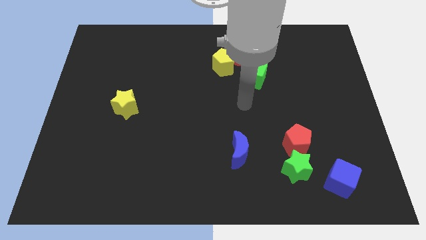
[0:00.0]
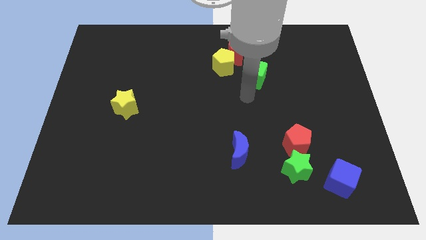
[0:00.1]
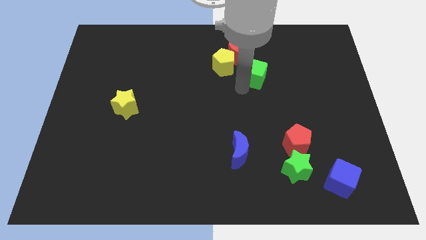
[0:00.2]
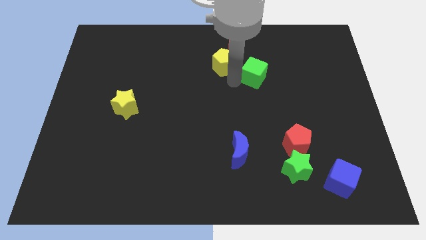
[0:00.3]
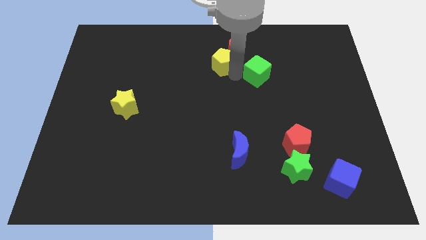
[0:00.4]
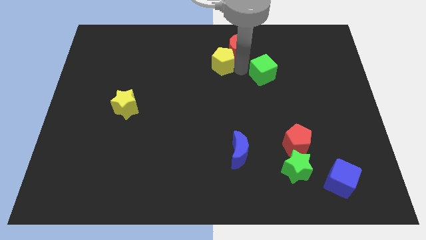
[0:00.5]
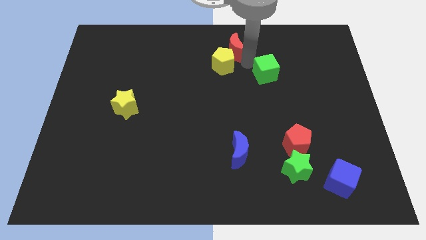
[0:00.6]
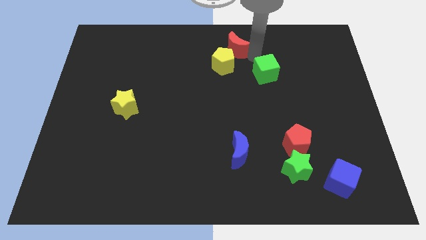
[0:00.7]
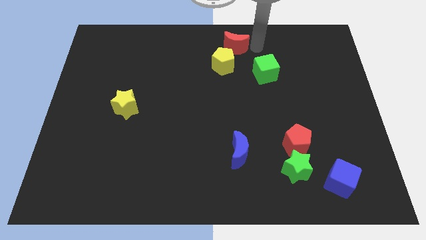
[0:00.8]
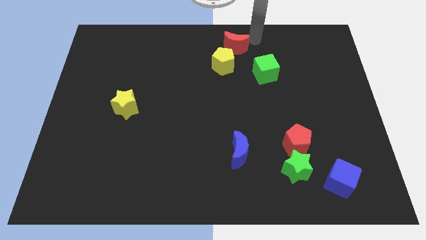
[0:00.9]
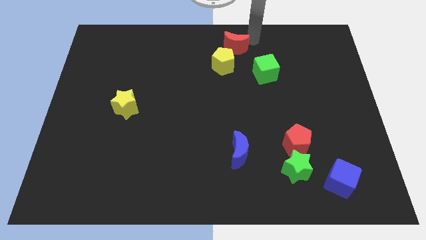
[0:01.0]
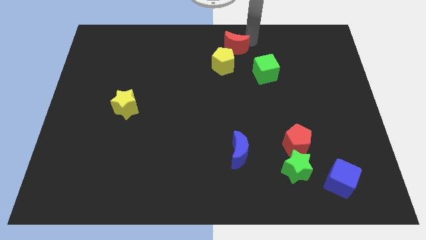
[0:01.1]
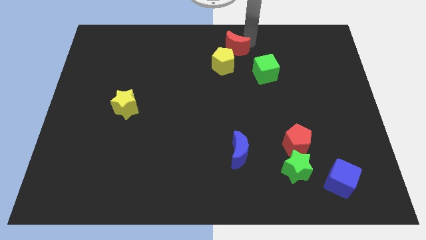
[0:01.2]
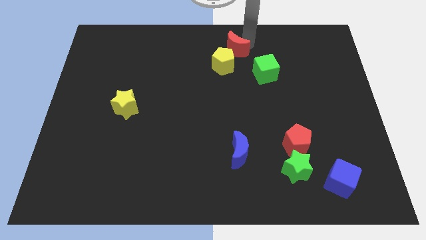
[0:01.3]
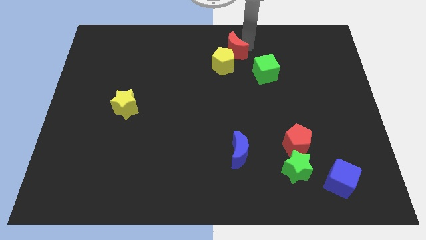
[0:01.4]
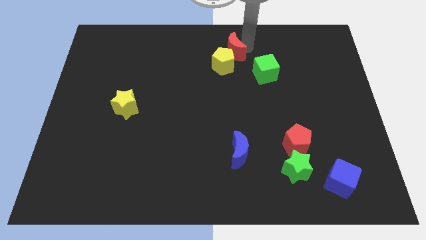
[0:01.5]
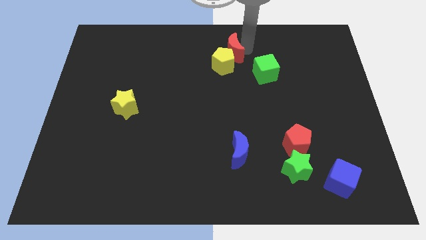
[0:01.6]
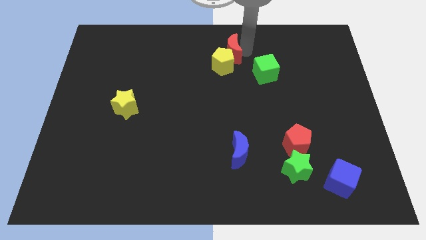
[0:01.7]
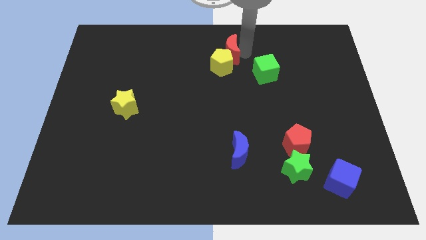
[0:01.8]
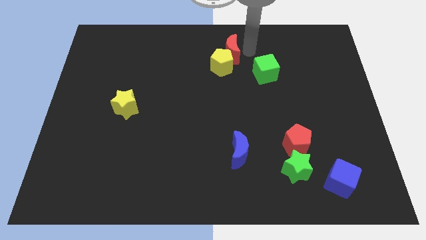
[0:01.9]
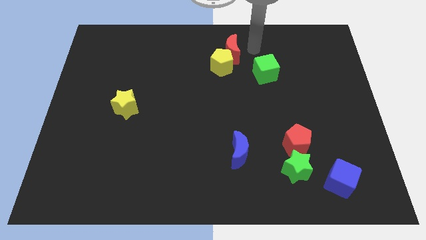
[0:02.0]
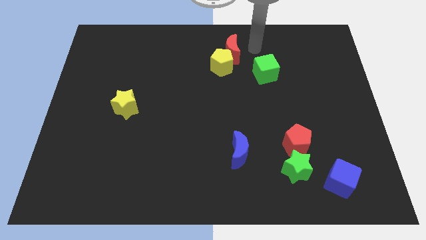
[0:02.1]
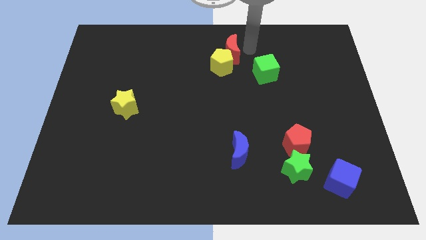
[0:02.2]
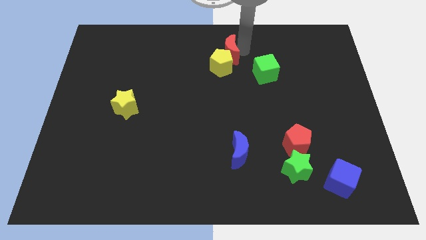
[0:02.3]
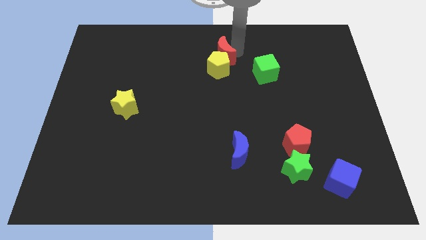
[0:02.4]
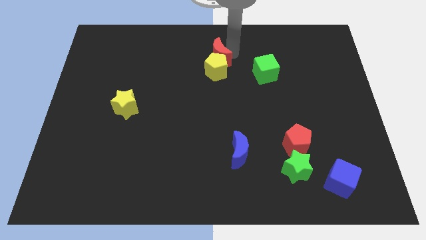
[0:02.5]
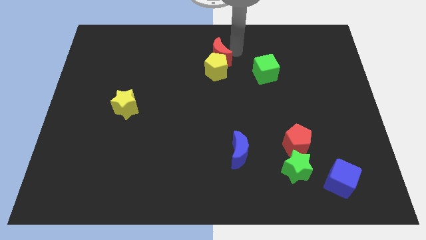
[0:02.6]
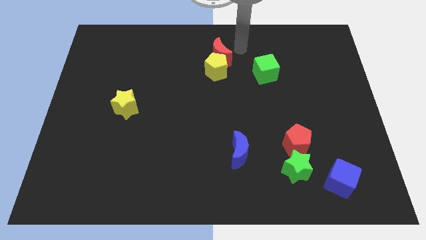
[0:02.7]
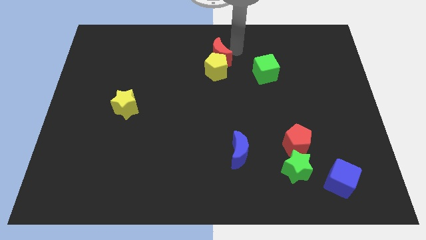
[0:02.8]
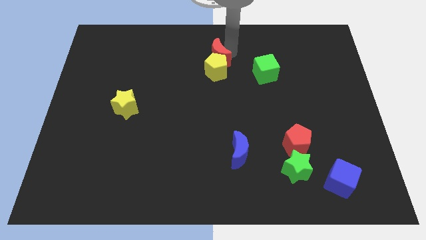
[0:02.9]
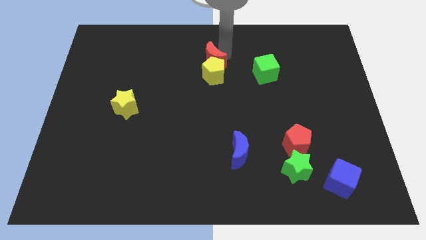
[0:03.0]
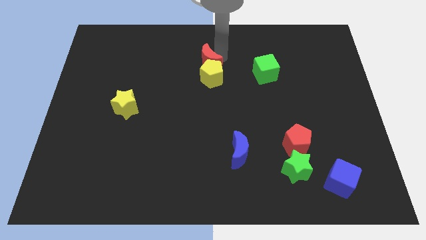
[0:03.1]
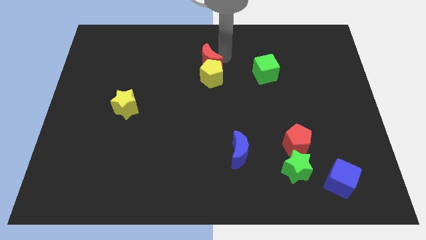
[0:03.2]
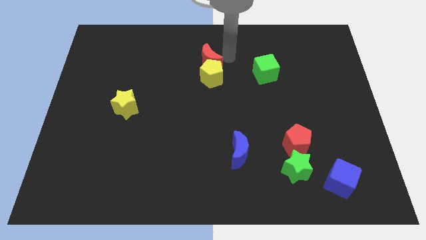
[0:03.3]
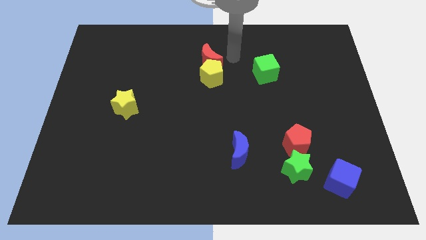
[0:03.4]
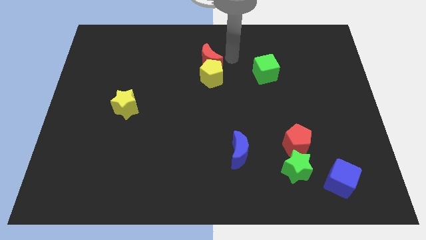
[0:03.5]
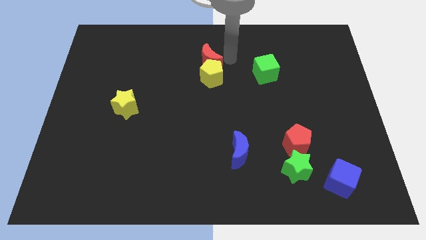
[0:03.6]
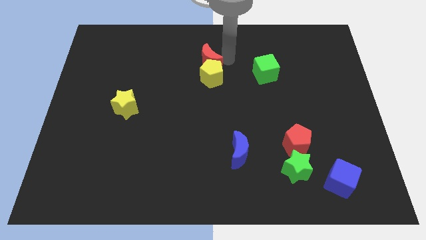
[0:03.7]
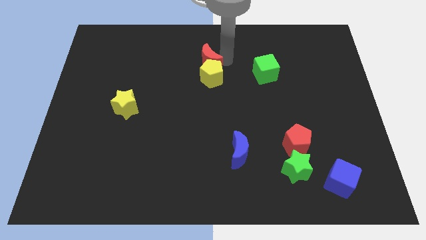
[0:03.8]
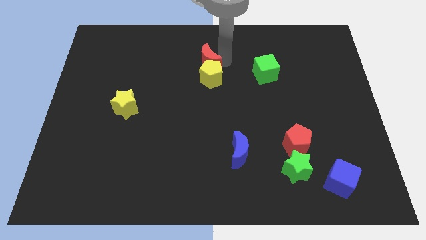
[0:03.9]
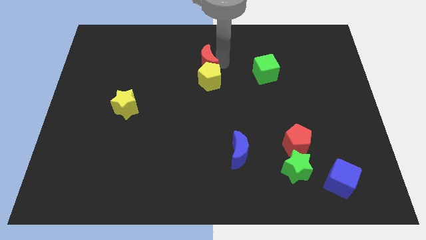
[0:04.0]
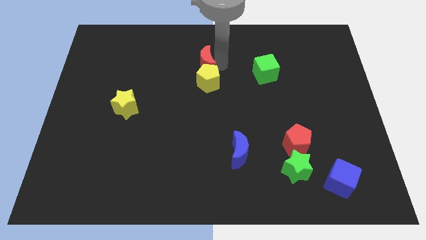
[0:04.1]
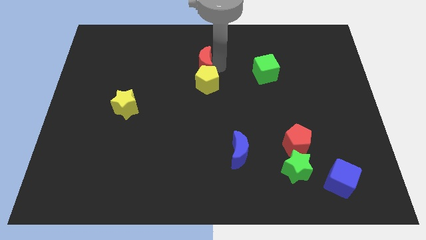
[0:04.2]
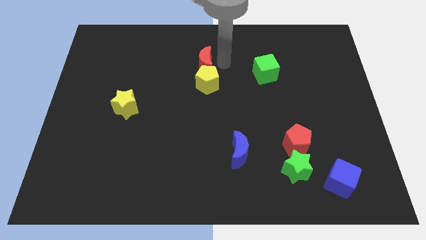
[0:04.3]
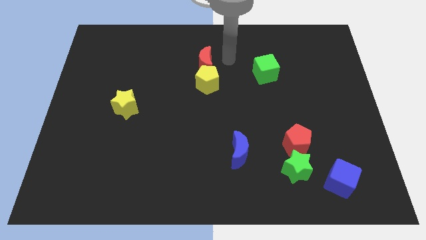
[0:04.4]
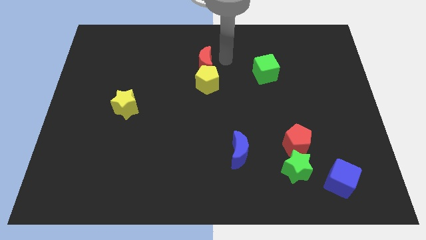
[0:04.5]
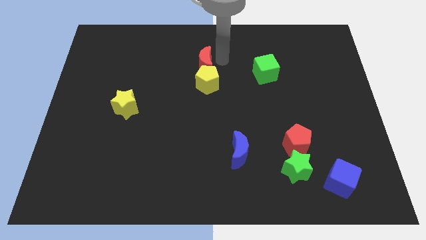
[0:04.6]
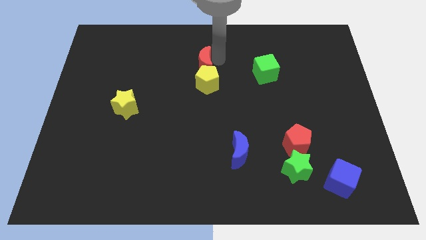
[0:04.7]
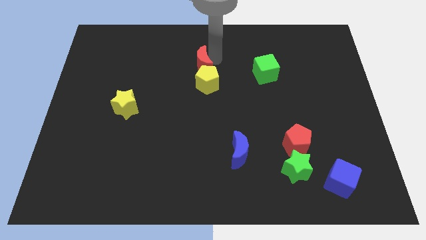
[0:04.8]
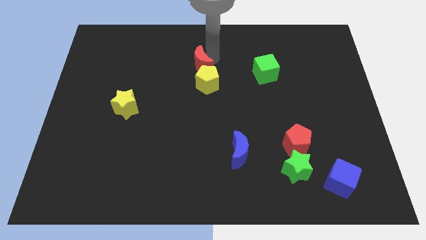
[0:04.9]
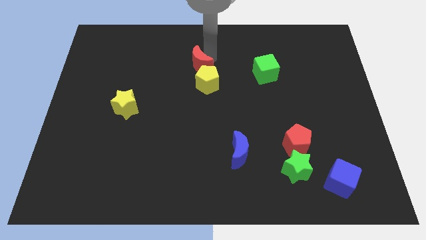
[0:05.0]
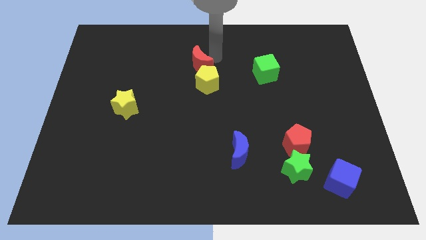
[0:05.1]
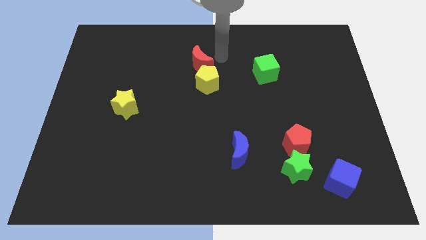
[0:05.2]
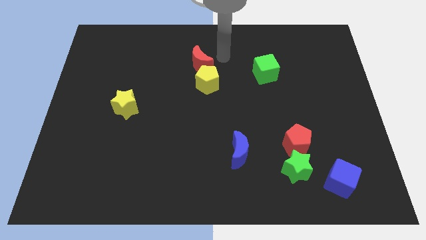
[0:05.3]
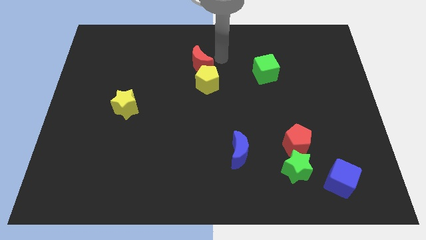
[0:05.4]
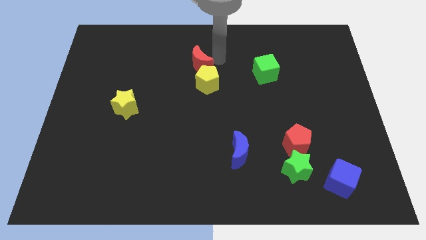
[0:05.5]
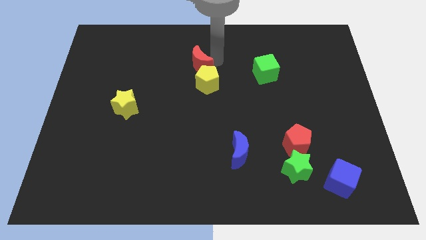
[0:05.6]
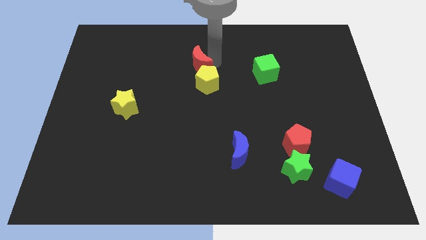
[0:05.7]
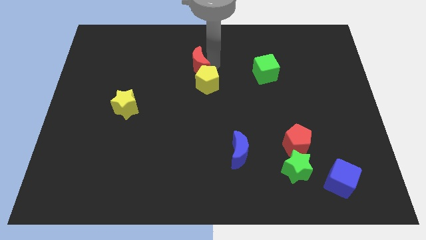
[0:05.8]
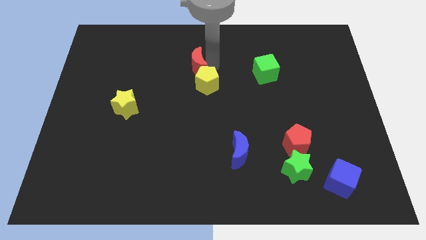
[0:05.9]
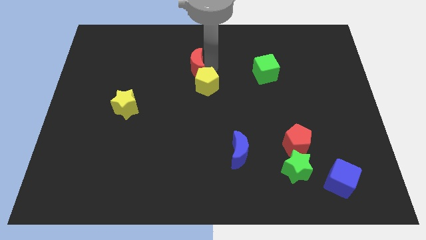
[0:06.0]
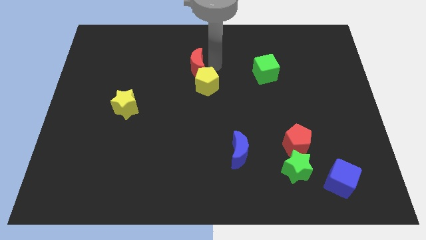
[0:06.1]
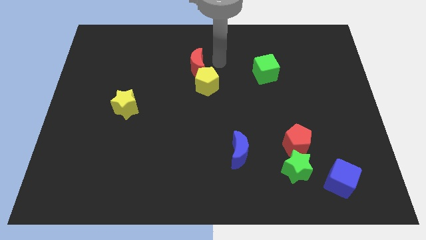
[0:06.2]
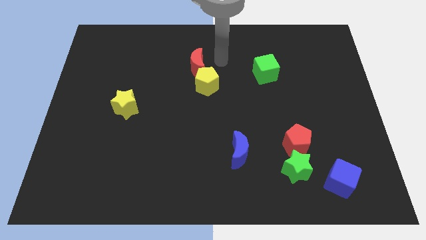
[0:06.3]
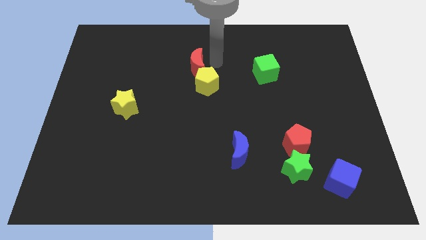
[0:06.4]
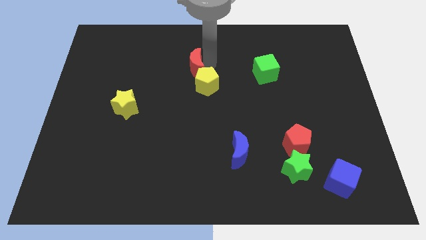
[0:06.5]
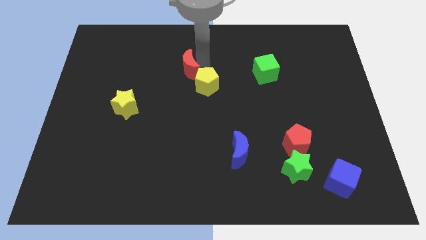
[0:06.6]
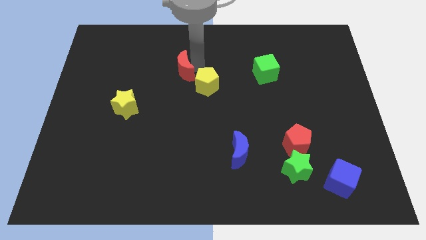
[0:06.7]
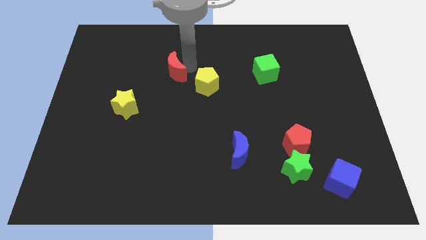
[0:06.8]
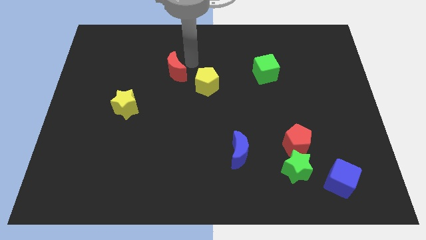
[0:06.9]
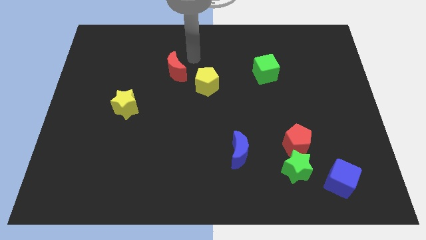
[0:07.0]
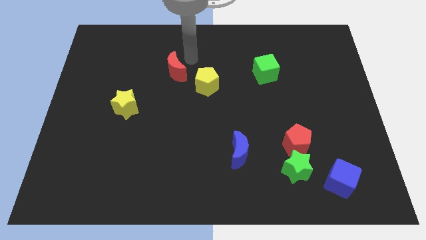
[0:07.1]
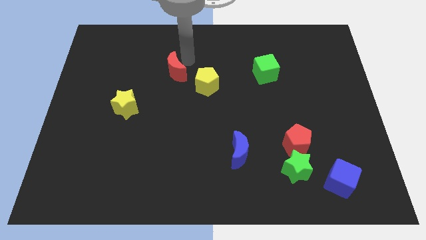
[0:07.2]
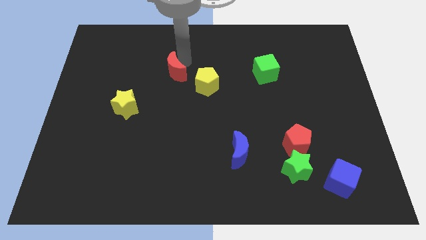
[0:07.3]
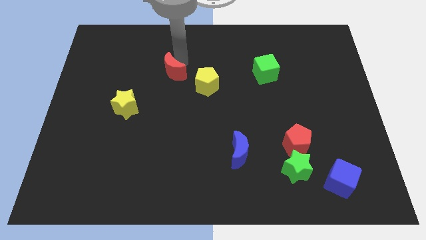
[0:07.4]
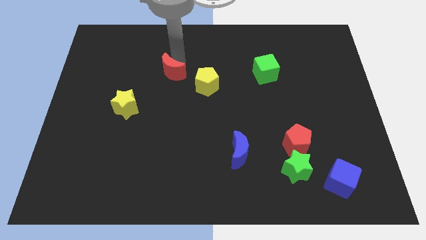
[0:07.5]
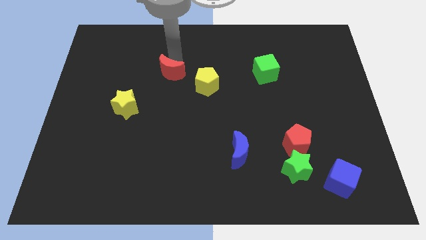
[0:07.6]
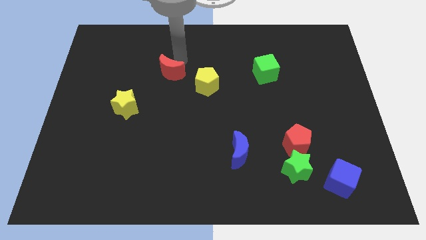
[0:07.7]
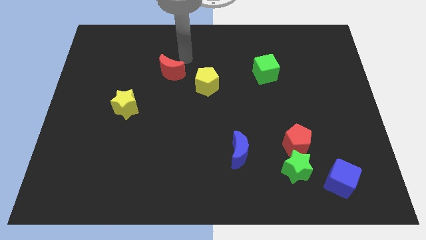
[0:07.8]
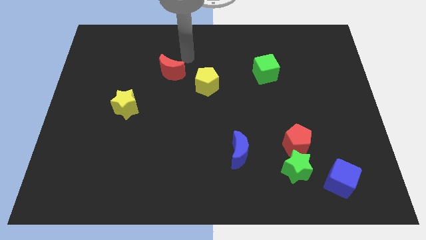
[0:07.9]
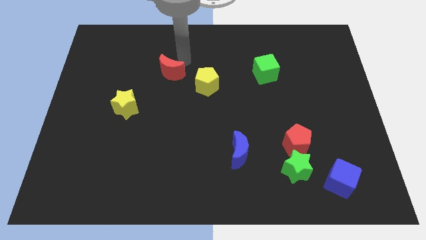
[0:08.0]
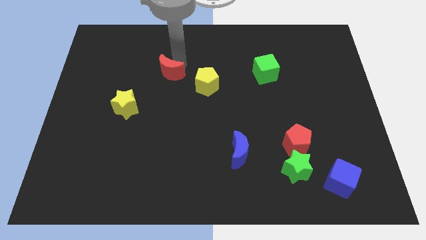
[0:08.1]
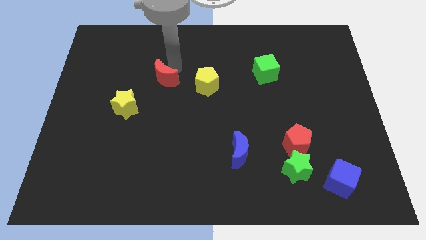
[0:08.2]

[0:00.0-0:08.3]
move the red moon to the top right of the yellow star
